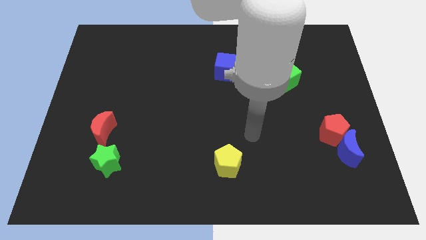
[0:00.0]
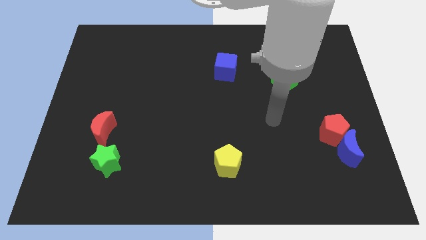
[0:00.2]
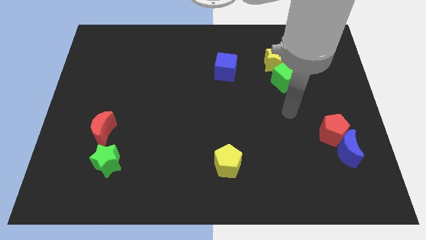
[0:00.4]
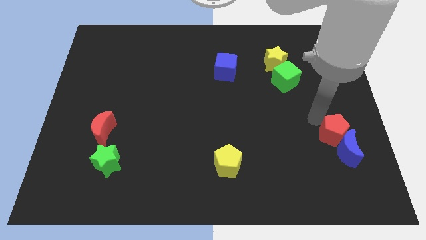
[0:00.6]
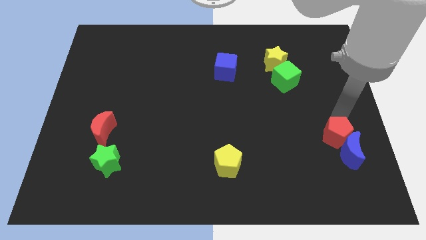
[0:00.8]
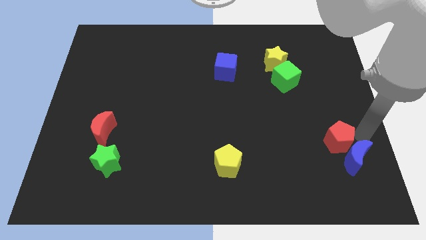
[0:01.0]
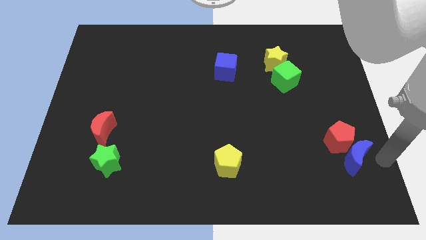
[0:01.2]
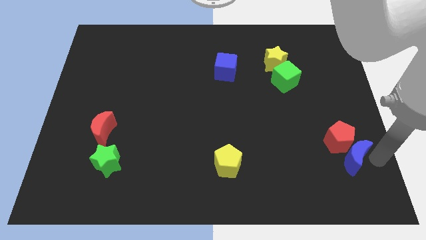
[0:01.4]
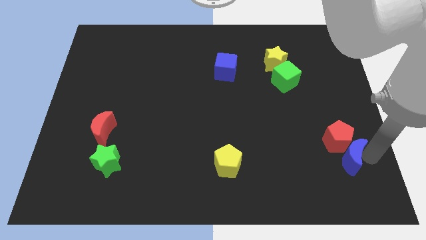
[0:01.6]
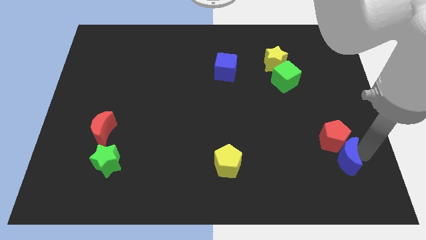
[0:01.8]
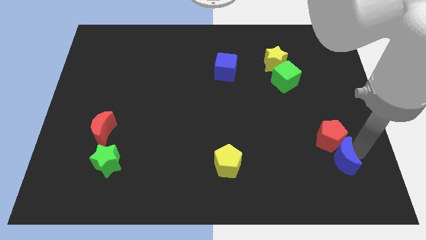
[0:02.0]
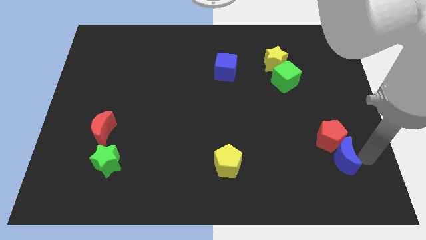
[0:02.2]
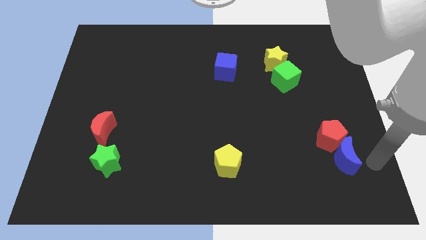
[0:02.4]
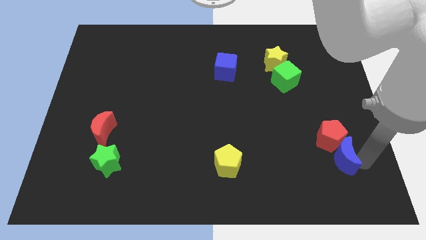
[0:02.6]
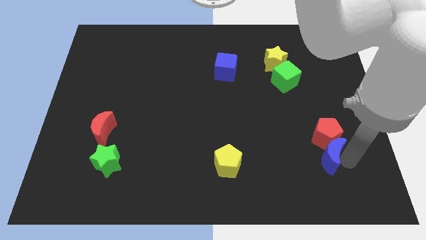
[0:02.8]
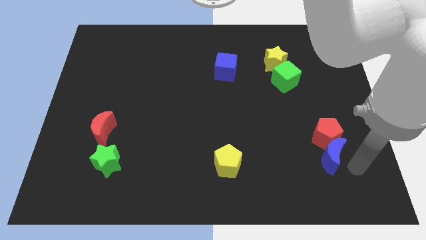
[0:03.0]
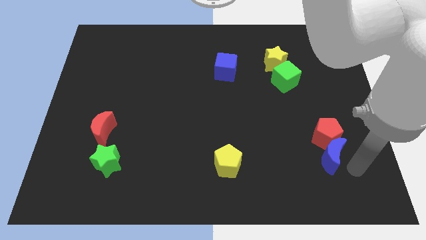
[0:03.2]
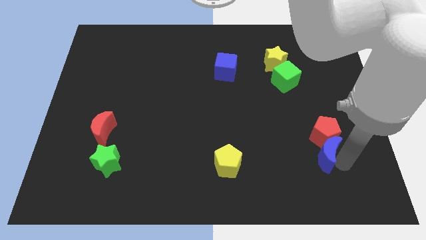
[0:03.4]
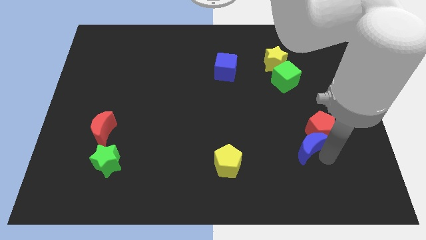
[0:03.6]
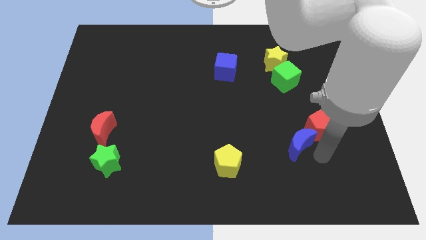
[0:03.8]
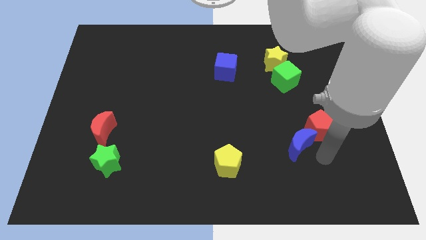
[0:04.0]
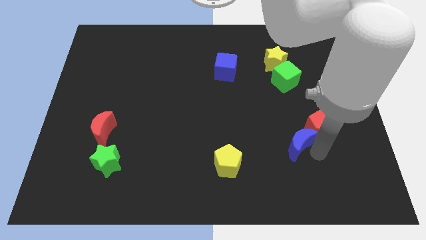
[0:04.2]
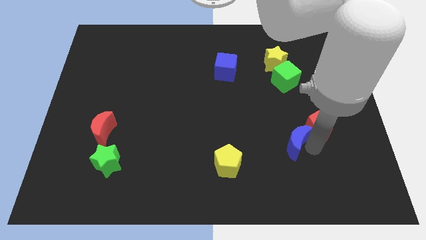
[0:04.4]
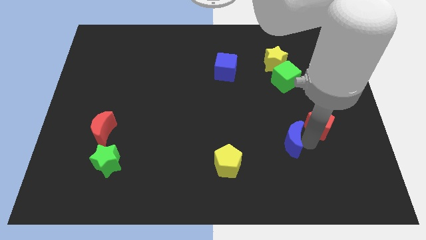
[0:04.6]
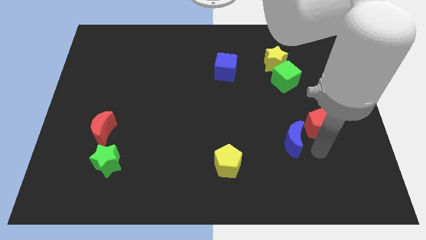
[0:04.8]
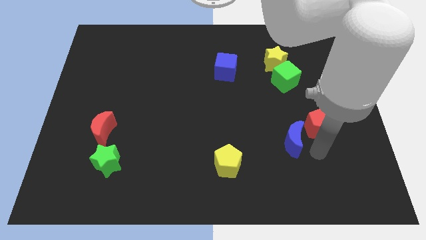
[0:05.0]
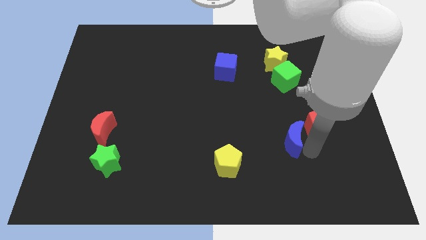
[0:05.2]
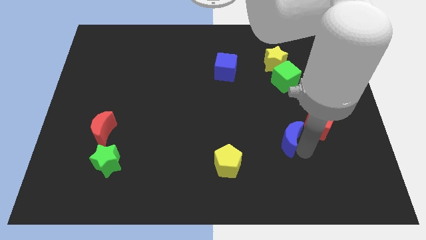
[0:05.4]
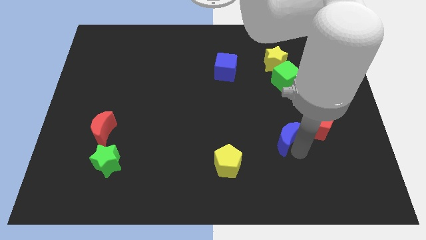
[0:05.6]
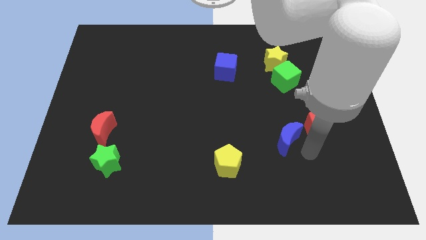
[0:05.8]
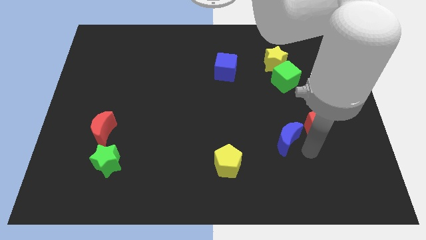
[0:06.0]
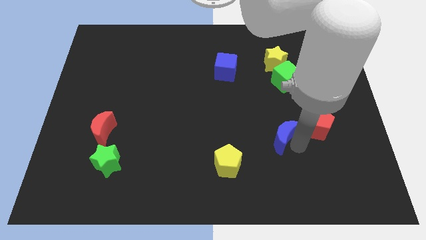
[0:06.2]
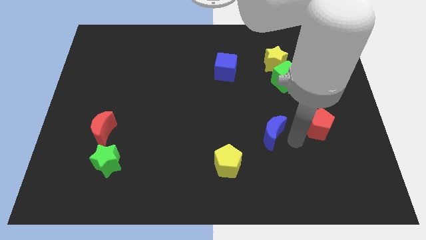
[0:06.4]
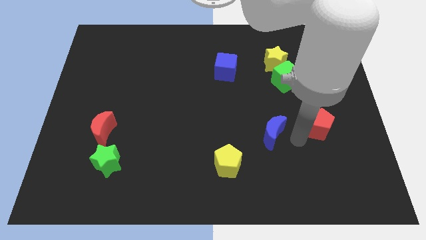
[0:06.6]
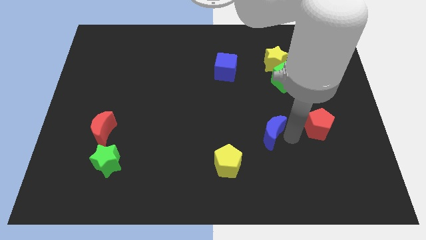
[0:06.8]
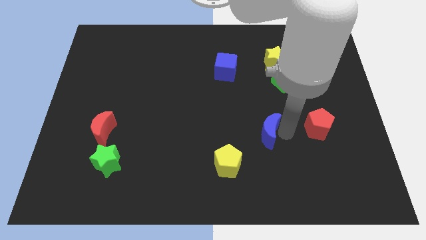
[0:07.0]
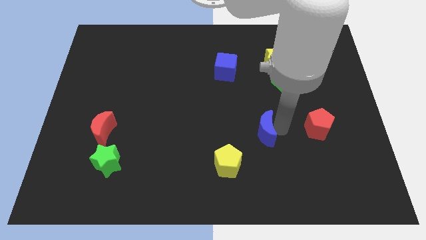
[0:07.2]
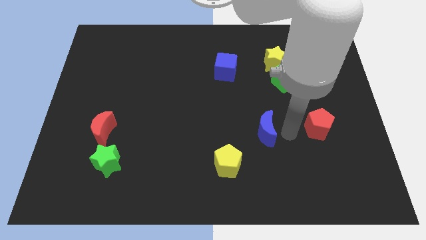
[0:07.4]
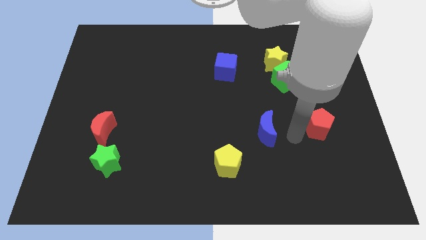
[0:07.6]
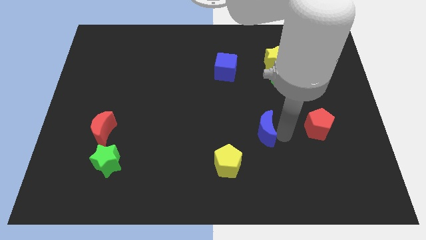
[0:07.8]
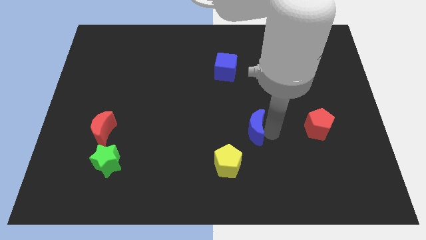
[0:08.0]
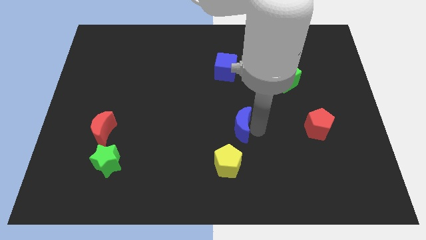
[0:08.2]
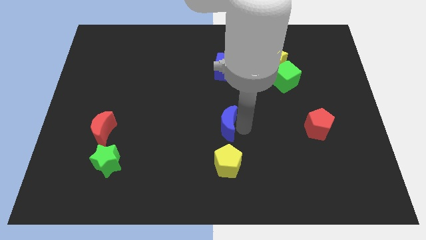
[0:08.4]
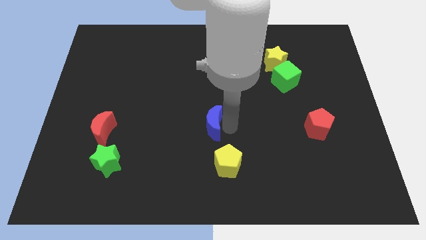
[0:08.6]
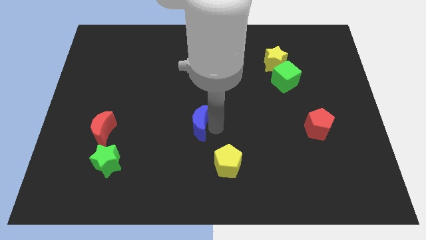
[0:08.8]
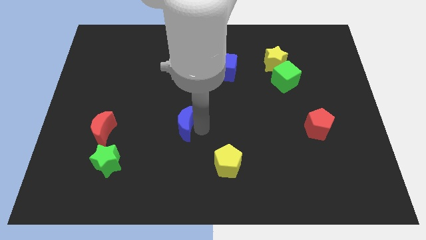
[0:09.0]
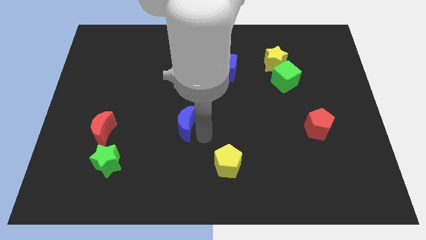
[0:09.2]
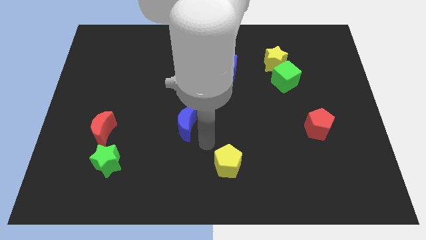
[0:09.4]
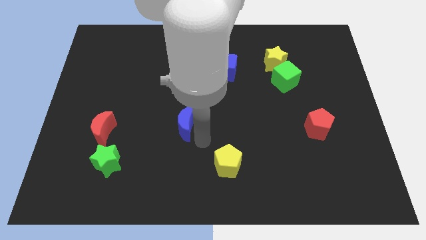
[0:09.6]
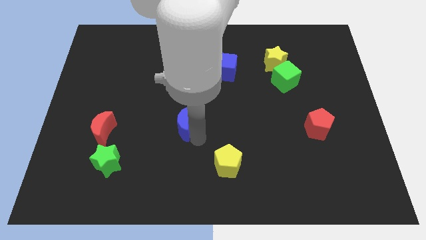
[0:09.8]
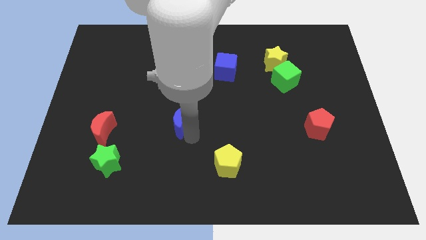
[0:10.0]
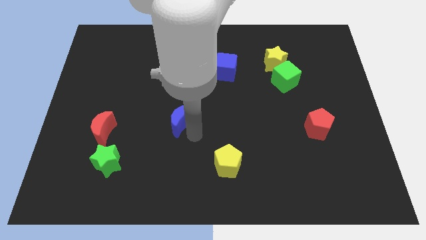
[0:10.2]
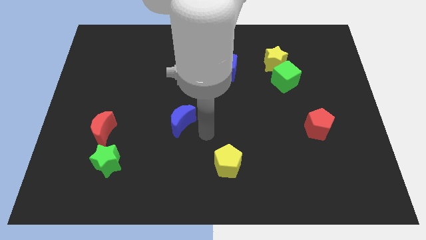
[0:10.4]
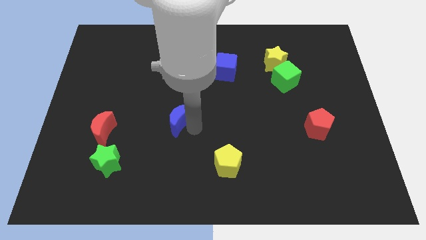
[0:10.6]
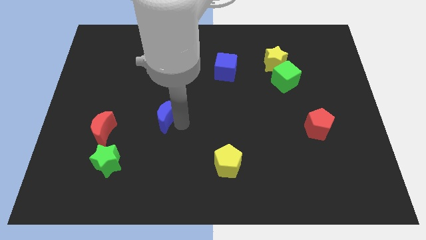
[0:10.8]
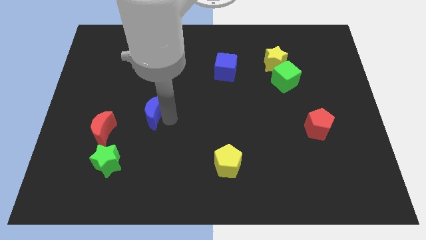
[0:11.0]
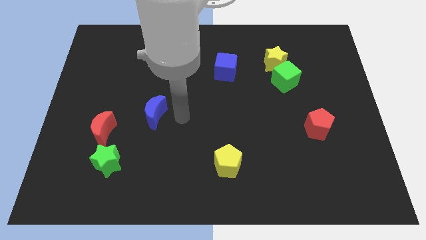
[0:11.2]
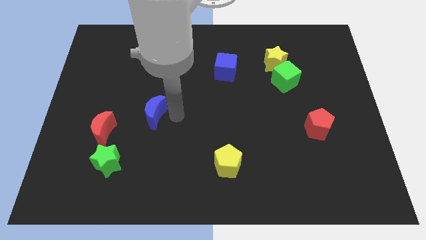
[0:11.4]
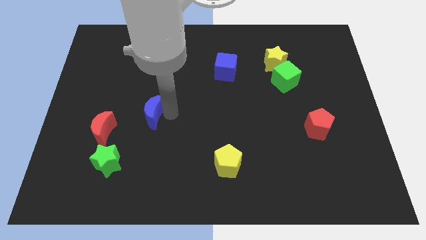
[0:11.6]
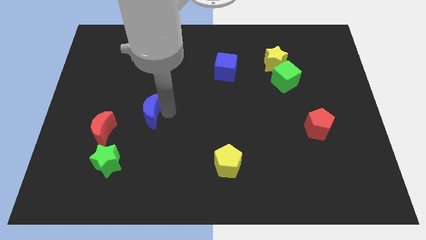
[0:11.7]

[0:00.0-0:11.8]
put the blue moon diagonally up and to the right of the red moon

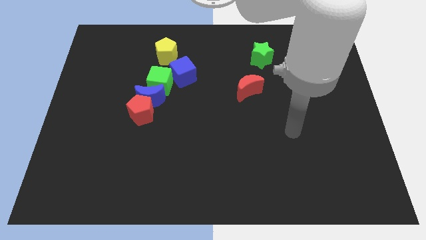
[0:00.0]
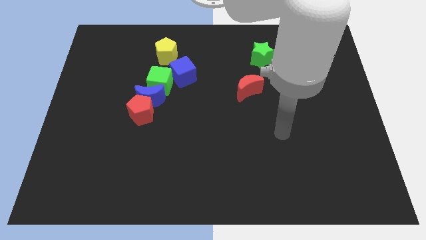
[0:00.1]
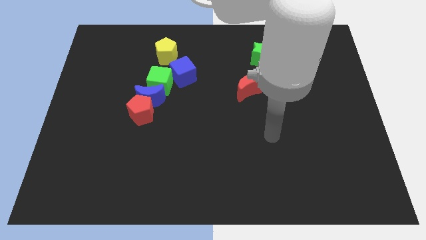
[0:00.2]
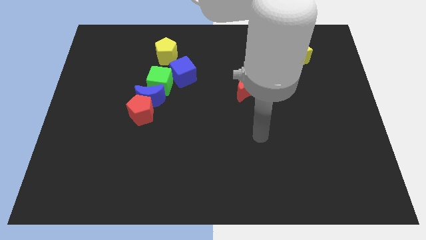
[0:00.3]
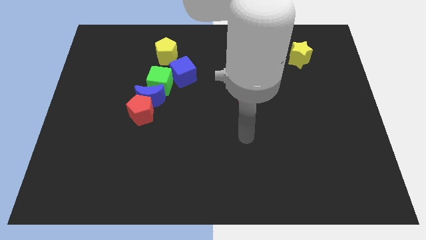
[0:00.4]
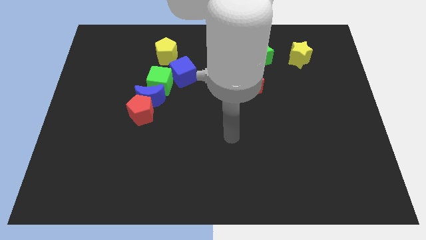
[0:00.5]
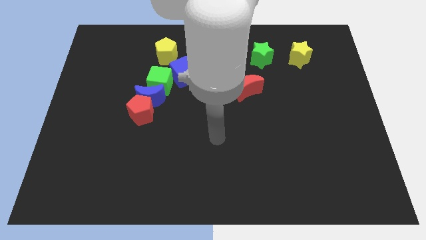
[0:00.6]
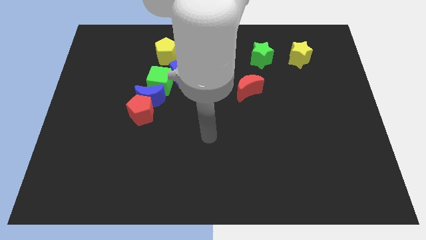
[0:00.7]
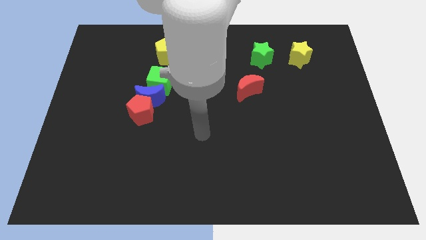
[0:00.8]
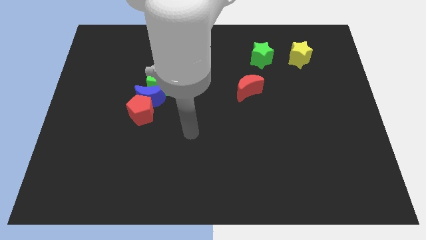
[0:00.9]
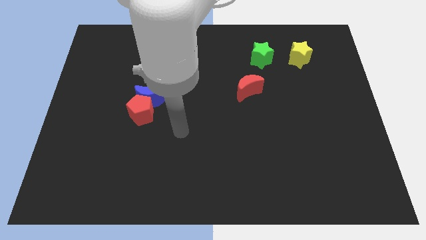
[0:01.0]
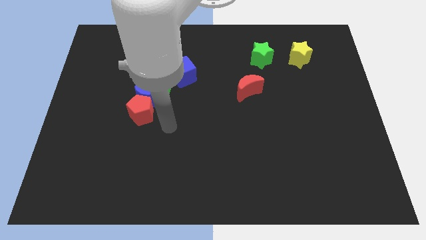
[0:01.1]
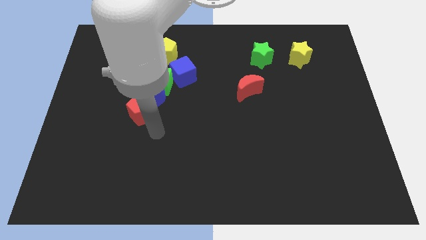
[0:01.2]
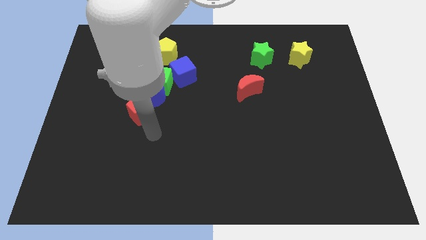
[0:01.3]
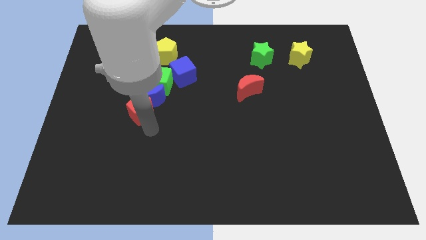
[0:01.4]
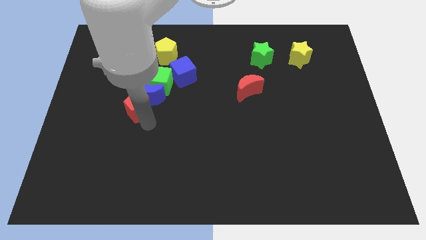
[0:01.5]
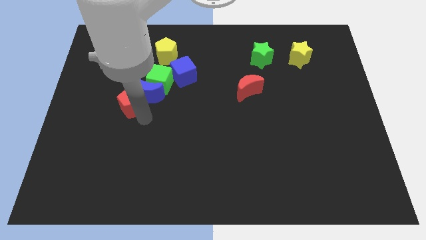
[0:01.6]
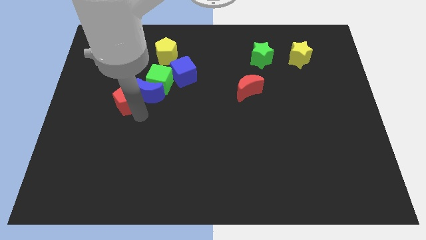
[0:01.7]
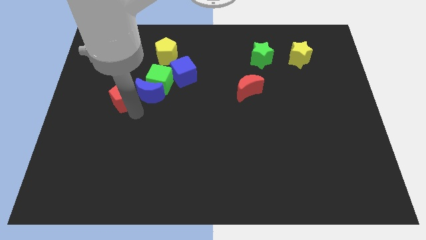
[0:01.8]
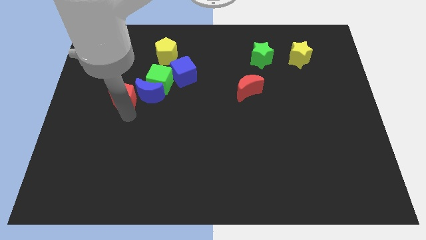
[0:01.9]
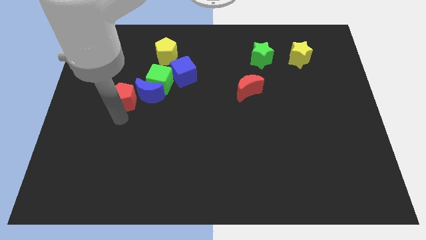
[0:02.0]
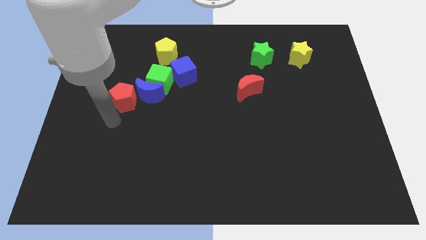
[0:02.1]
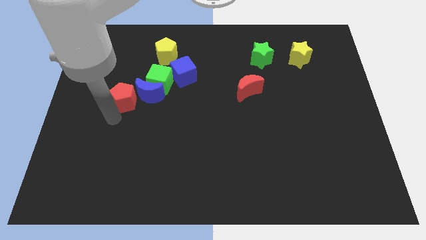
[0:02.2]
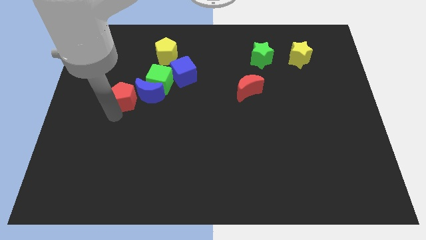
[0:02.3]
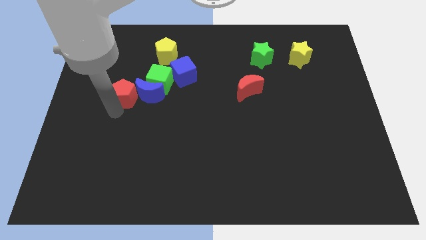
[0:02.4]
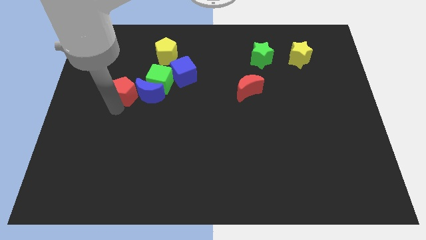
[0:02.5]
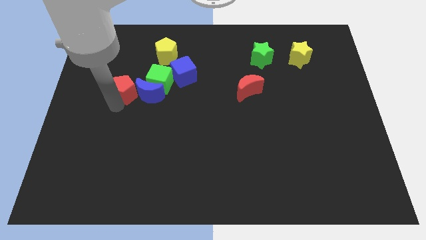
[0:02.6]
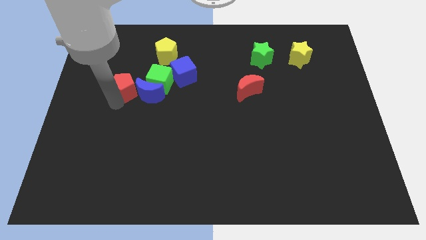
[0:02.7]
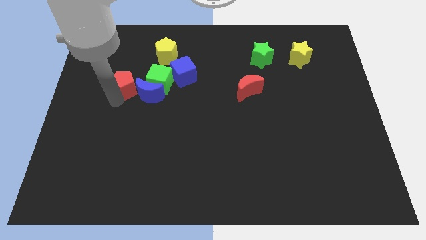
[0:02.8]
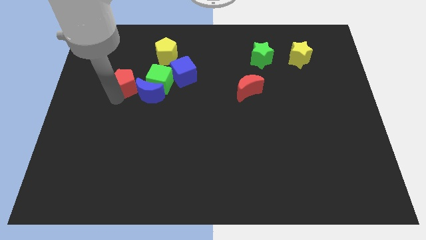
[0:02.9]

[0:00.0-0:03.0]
move the red pentagon just left of the blue cube
